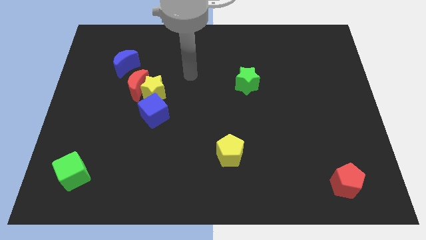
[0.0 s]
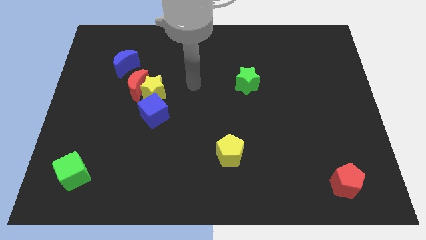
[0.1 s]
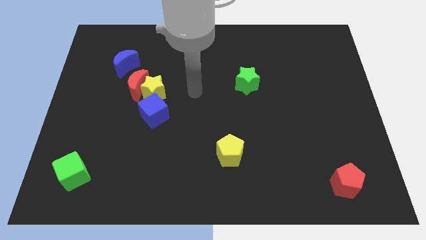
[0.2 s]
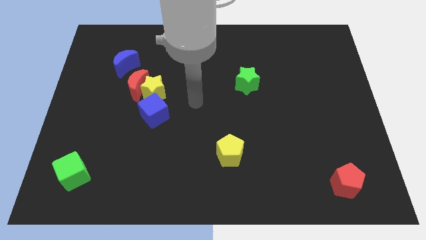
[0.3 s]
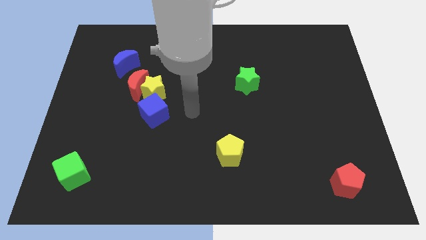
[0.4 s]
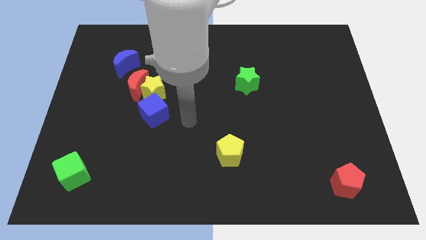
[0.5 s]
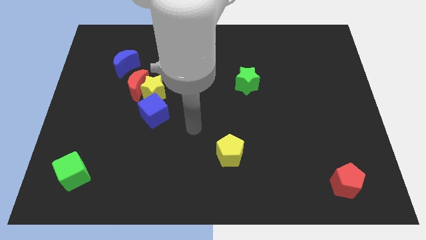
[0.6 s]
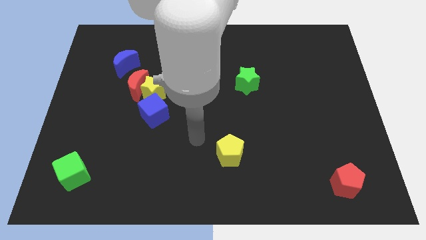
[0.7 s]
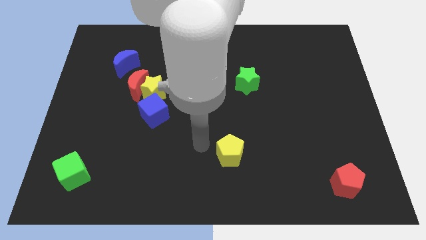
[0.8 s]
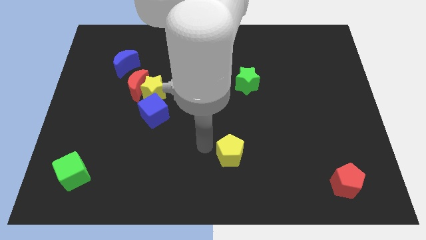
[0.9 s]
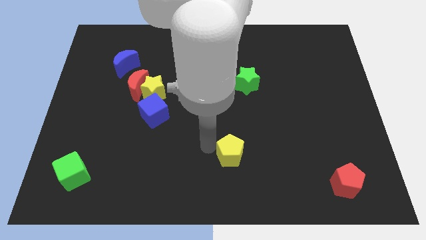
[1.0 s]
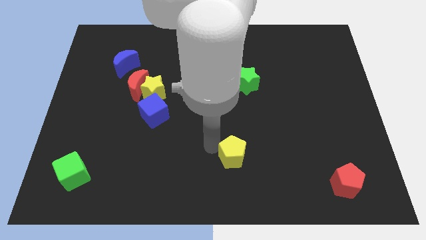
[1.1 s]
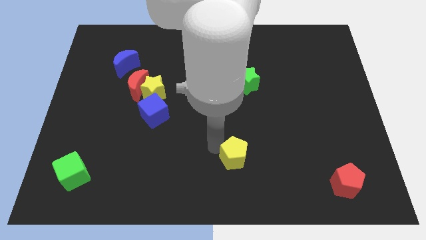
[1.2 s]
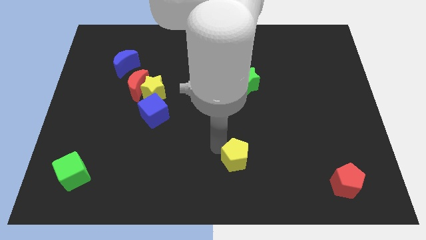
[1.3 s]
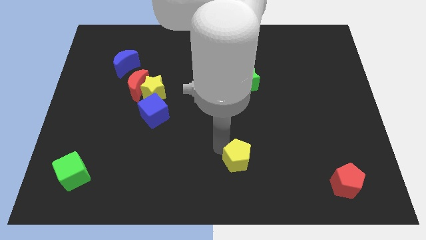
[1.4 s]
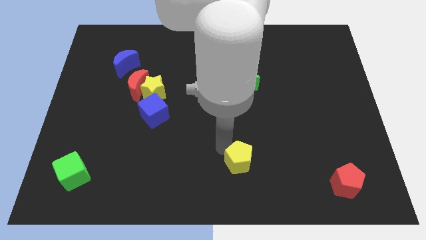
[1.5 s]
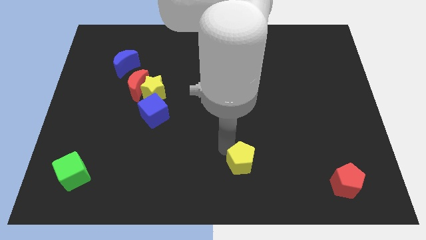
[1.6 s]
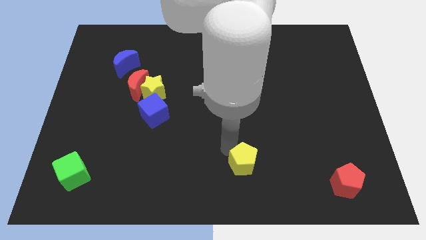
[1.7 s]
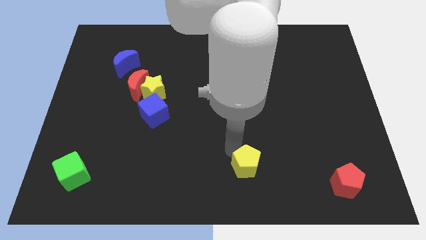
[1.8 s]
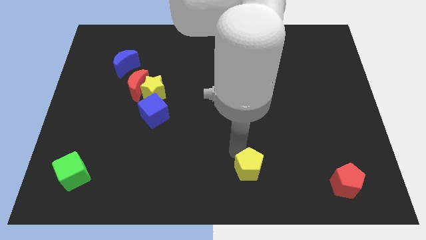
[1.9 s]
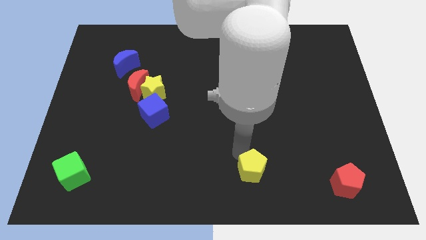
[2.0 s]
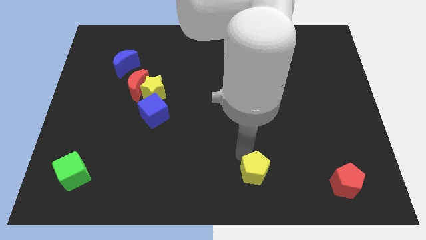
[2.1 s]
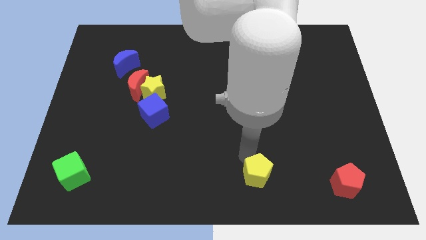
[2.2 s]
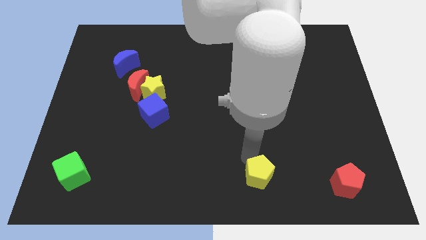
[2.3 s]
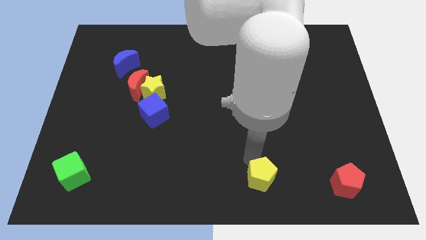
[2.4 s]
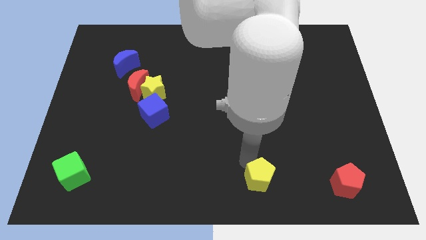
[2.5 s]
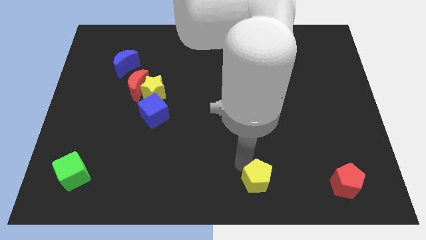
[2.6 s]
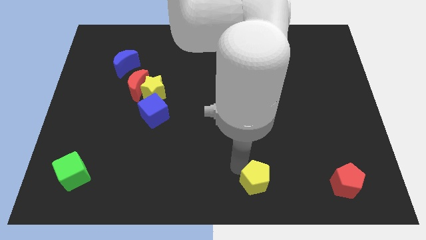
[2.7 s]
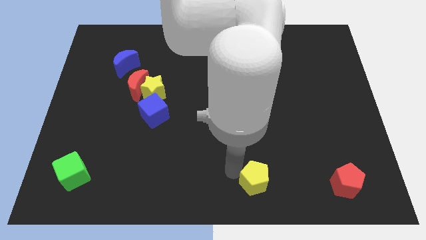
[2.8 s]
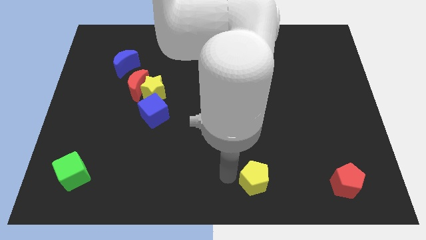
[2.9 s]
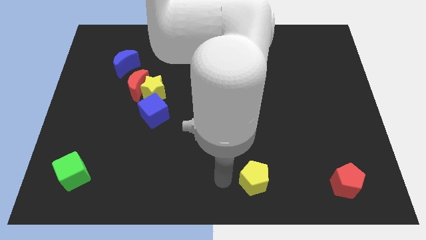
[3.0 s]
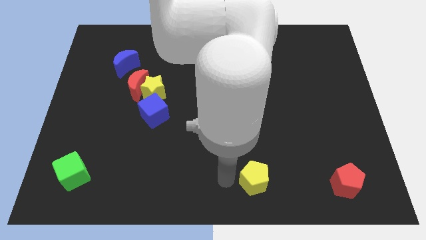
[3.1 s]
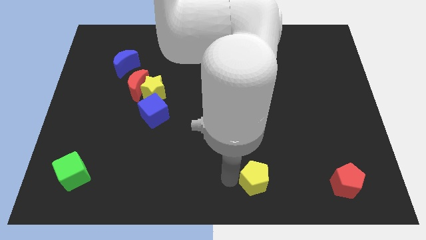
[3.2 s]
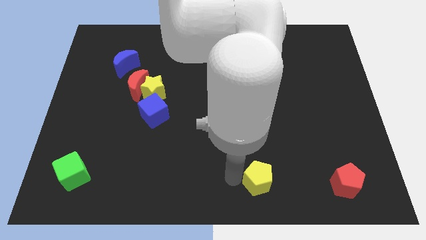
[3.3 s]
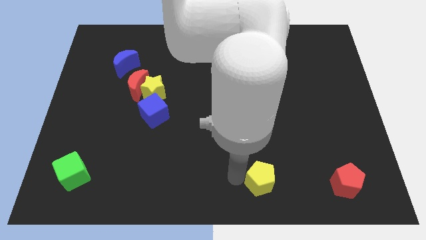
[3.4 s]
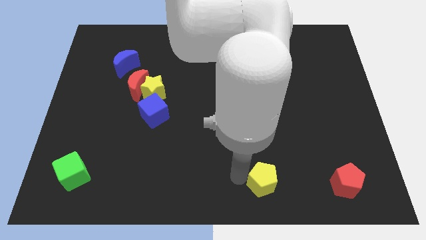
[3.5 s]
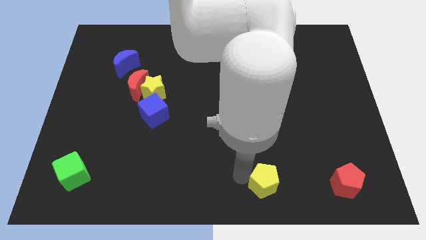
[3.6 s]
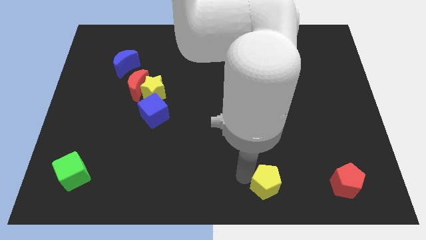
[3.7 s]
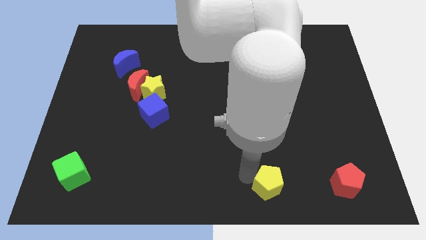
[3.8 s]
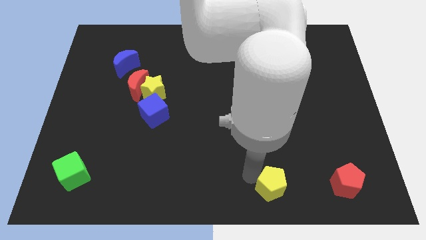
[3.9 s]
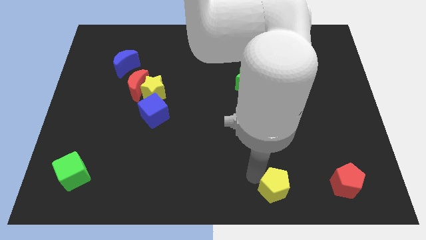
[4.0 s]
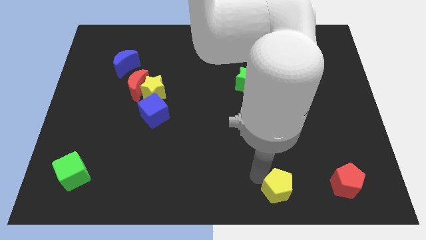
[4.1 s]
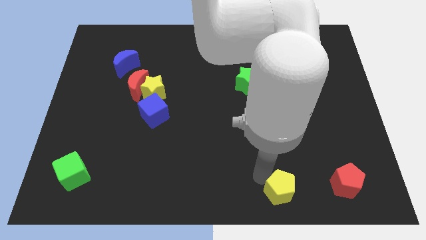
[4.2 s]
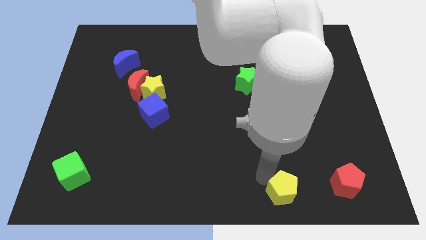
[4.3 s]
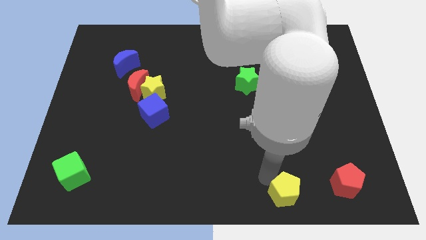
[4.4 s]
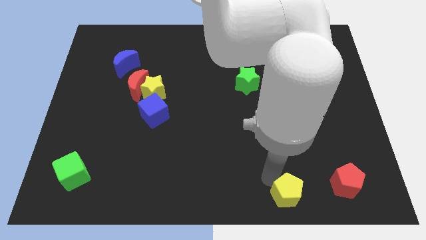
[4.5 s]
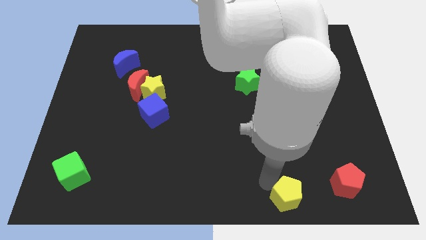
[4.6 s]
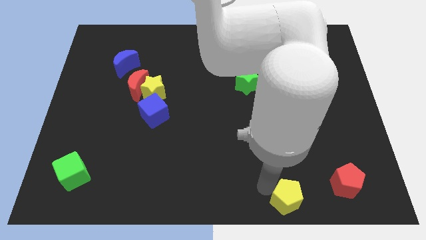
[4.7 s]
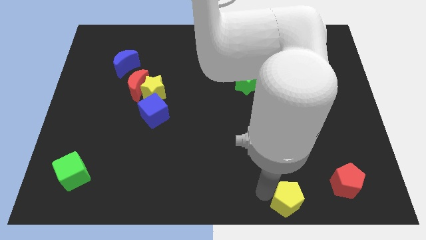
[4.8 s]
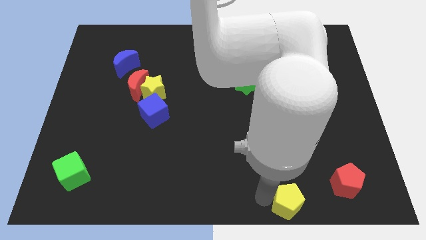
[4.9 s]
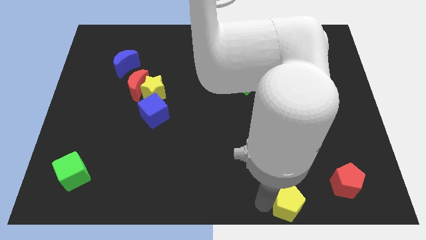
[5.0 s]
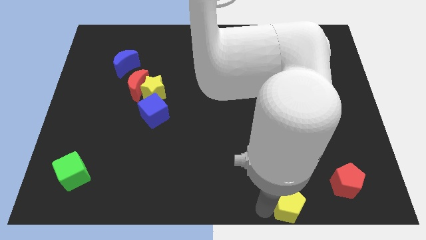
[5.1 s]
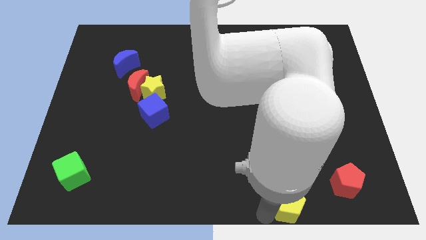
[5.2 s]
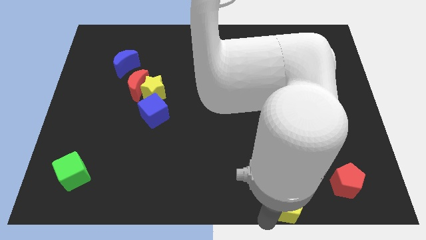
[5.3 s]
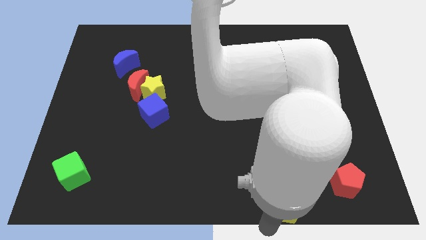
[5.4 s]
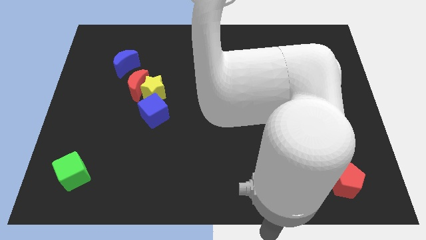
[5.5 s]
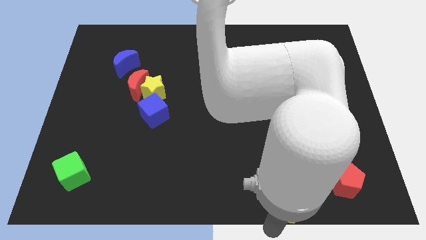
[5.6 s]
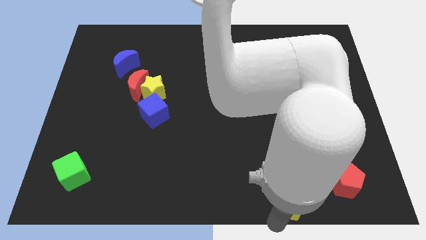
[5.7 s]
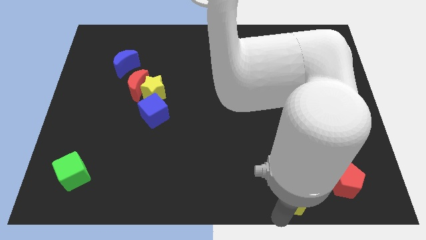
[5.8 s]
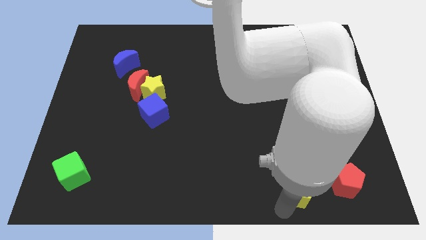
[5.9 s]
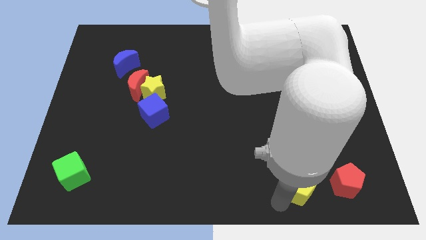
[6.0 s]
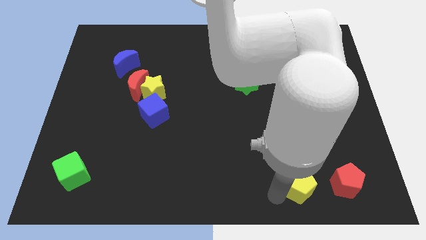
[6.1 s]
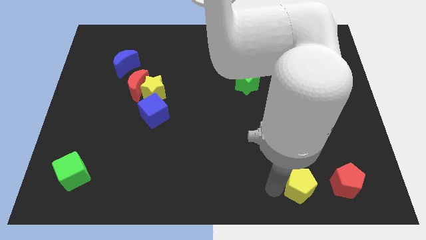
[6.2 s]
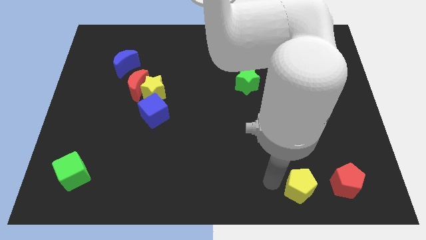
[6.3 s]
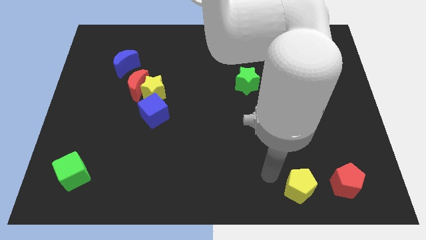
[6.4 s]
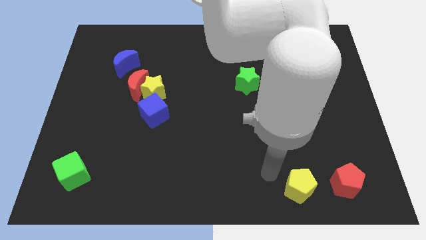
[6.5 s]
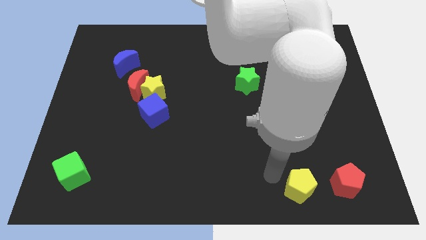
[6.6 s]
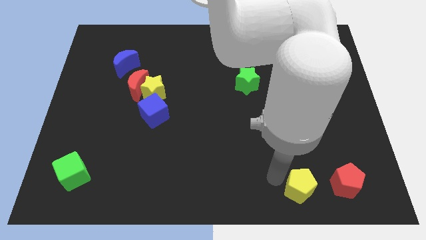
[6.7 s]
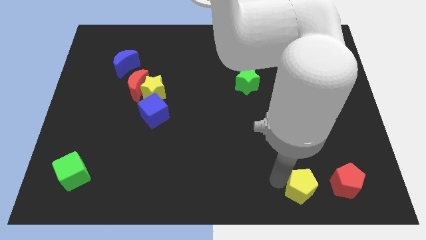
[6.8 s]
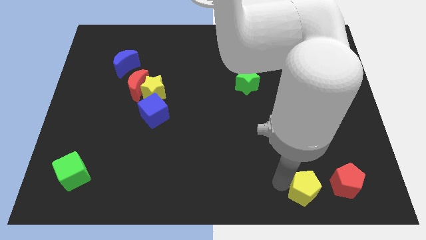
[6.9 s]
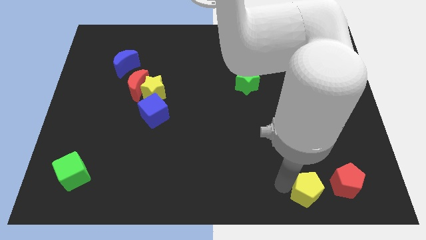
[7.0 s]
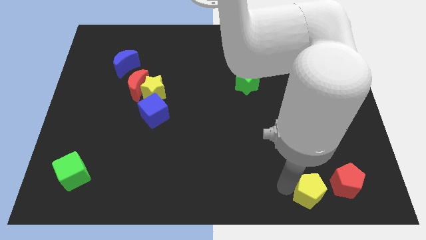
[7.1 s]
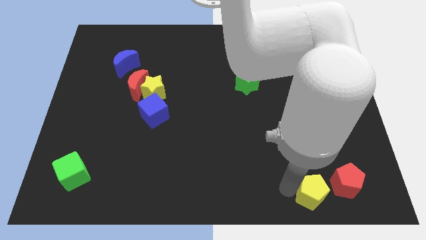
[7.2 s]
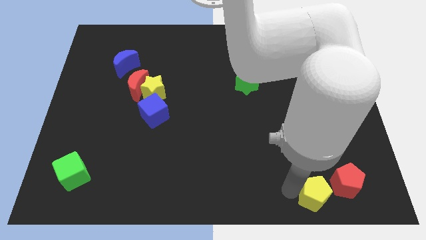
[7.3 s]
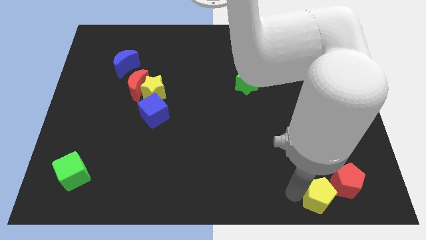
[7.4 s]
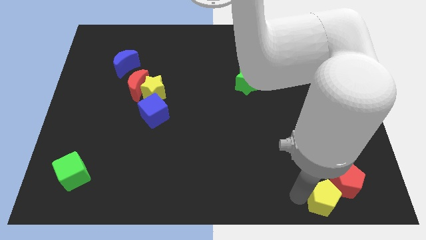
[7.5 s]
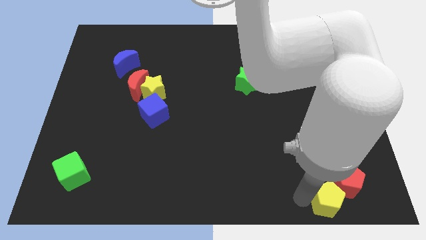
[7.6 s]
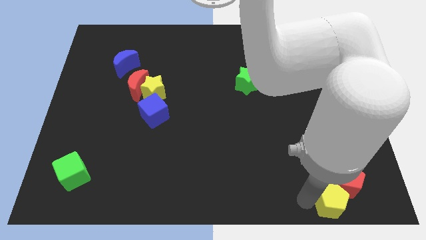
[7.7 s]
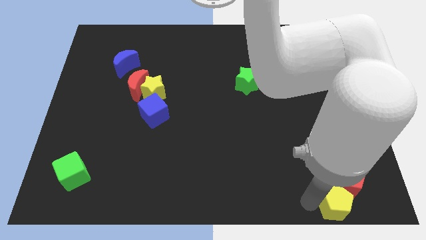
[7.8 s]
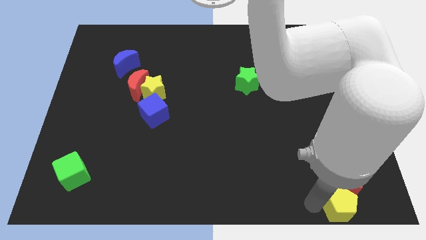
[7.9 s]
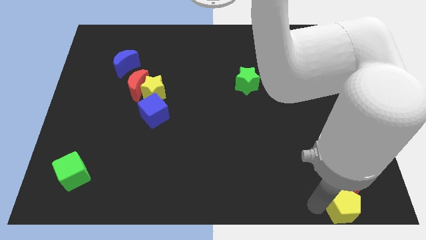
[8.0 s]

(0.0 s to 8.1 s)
put the yellow pentagon to the lower right corner
